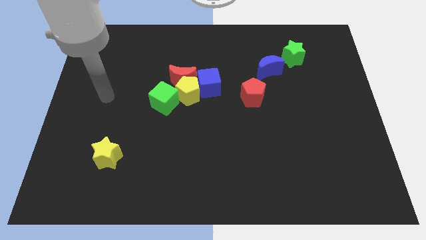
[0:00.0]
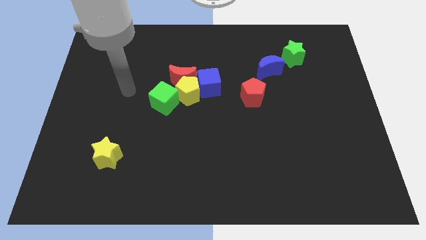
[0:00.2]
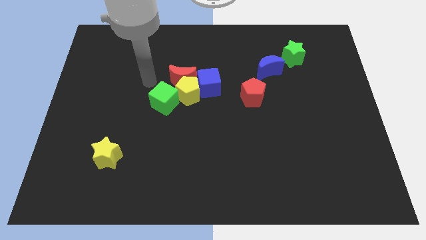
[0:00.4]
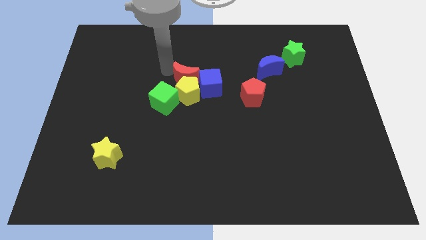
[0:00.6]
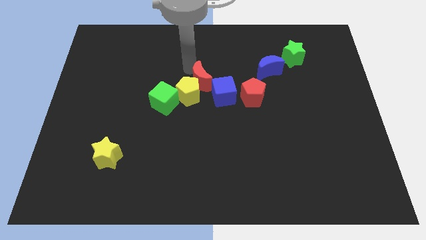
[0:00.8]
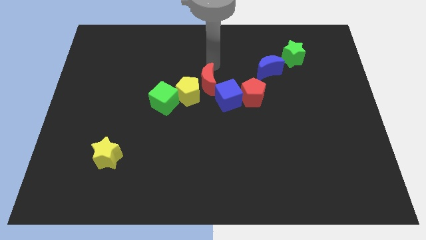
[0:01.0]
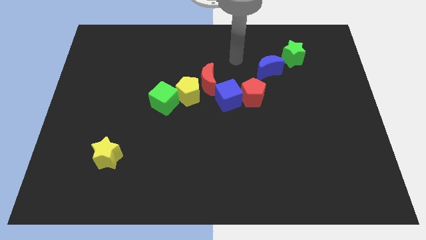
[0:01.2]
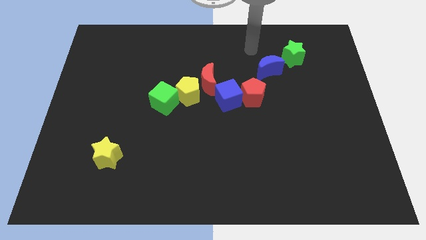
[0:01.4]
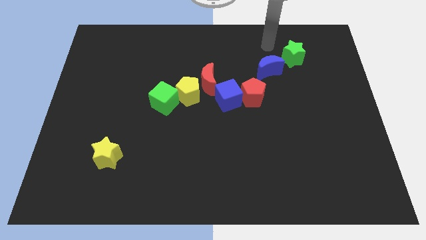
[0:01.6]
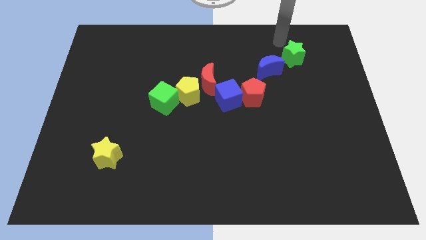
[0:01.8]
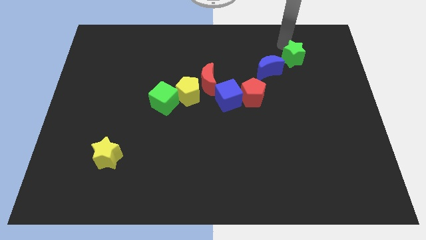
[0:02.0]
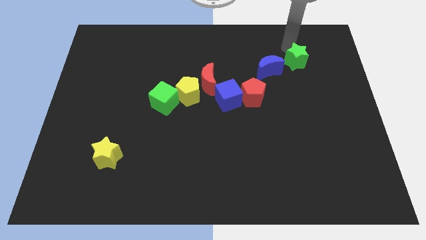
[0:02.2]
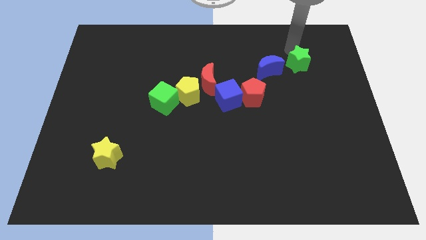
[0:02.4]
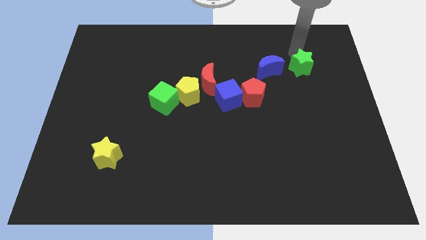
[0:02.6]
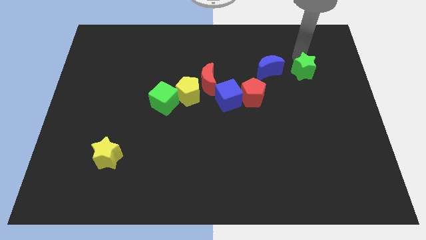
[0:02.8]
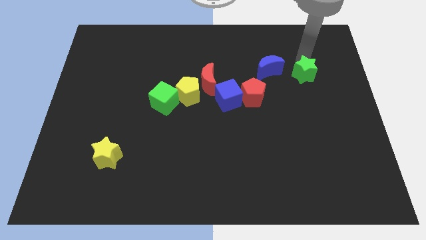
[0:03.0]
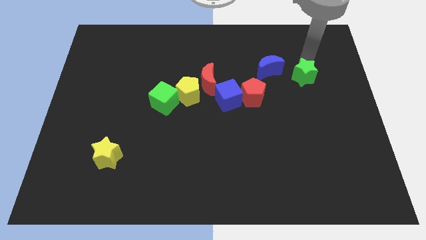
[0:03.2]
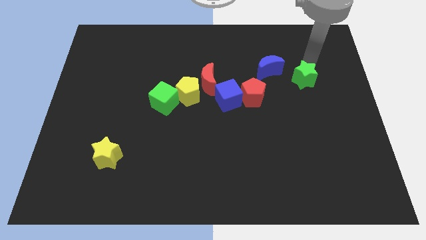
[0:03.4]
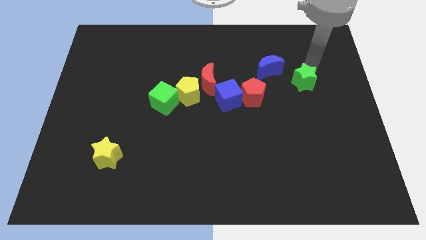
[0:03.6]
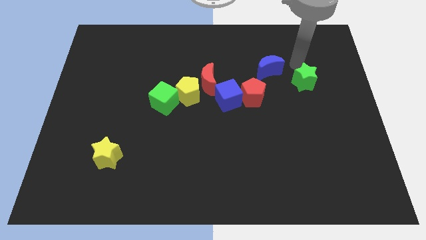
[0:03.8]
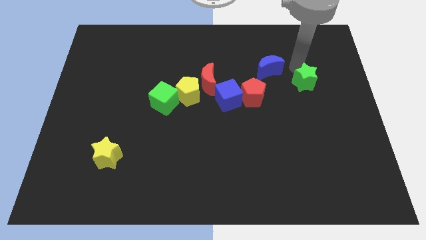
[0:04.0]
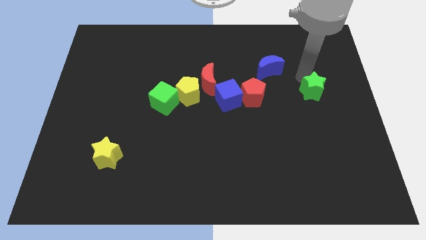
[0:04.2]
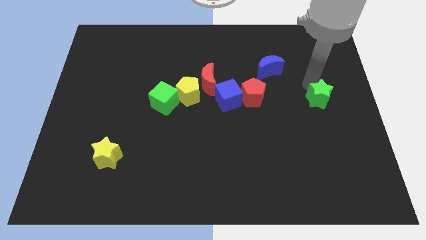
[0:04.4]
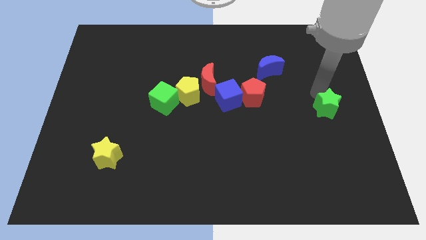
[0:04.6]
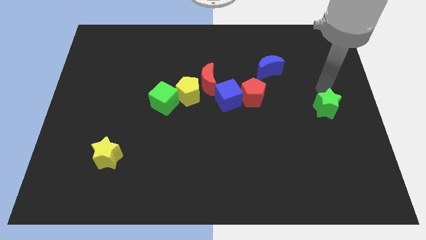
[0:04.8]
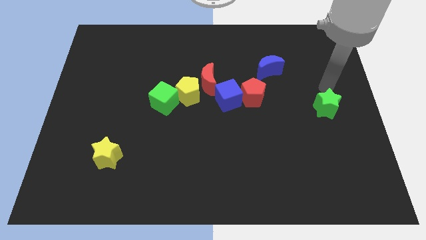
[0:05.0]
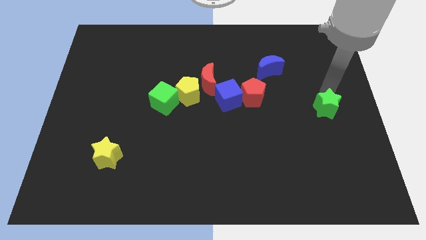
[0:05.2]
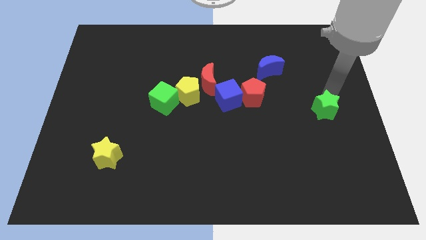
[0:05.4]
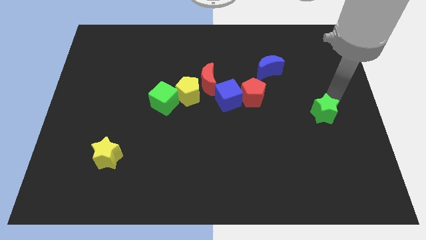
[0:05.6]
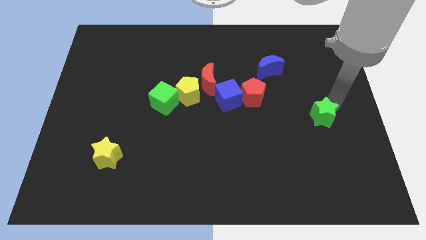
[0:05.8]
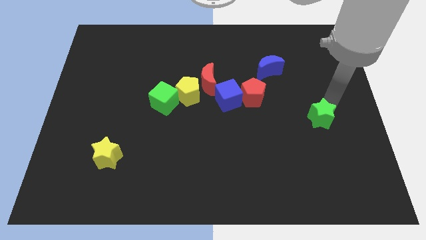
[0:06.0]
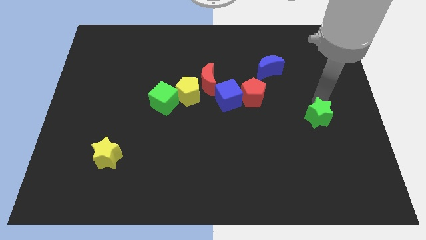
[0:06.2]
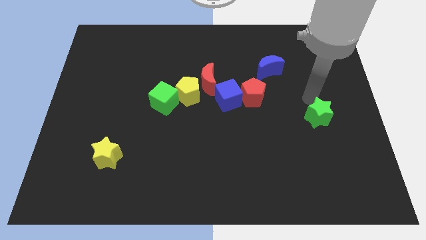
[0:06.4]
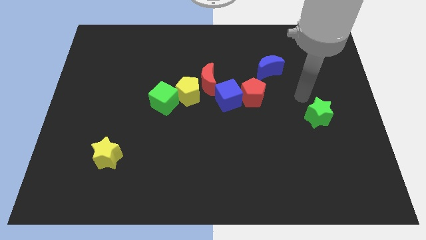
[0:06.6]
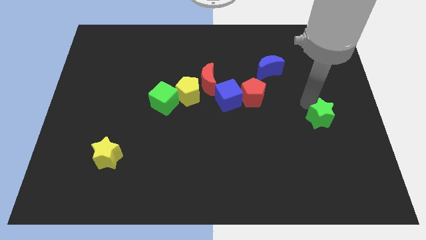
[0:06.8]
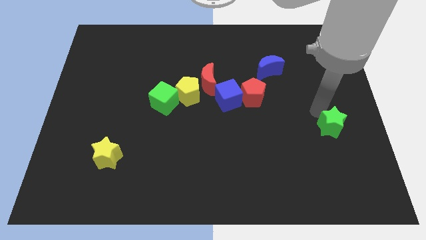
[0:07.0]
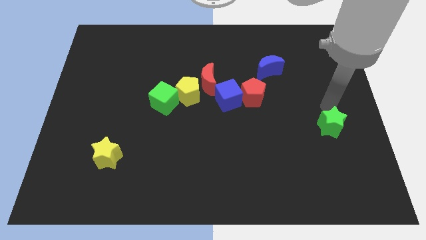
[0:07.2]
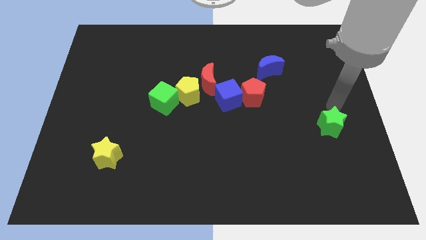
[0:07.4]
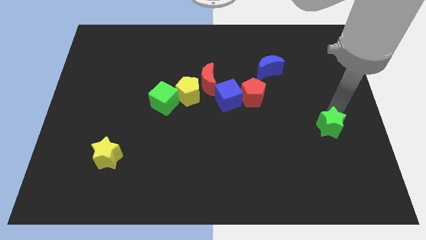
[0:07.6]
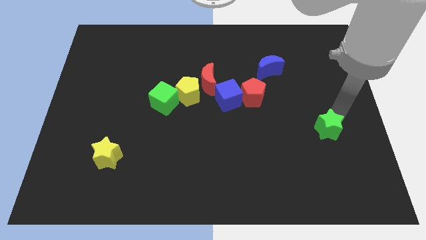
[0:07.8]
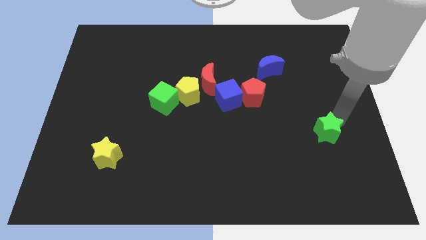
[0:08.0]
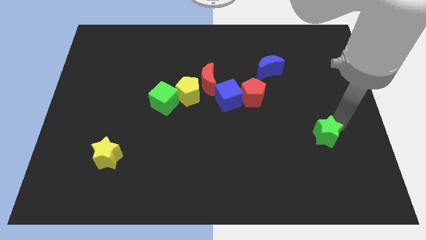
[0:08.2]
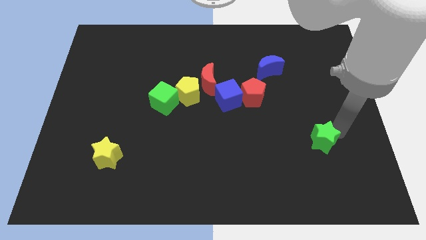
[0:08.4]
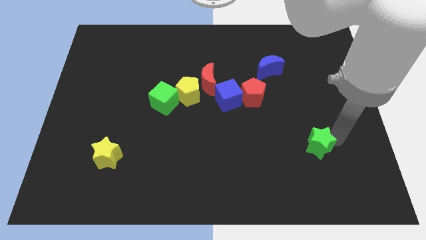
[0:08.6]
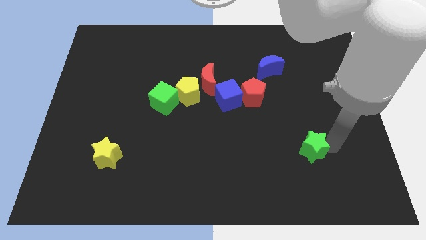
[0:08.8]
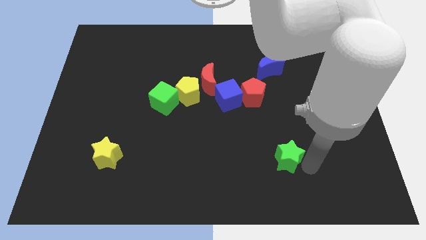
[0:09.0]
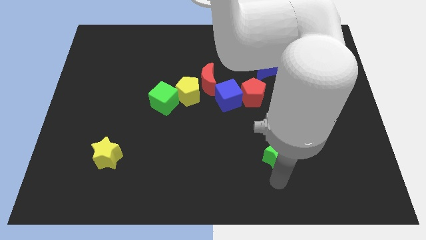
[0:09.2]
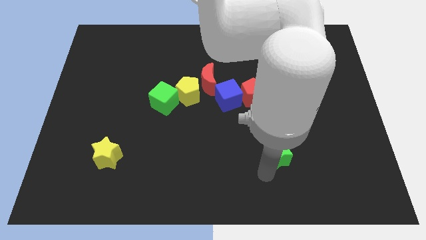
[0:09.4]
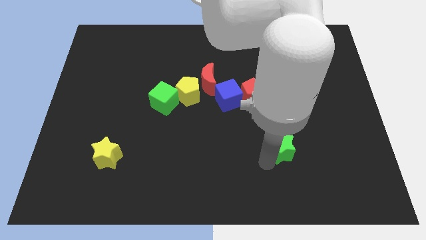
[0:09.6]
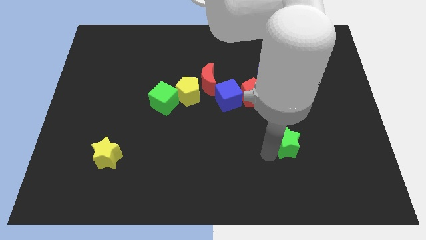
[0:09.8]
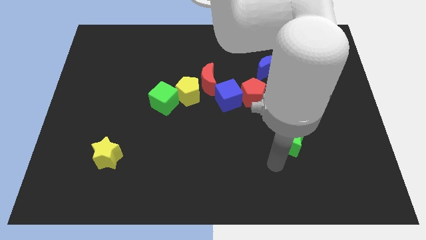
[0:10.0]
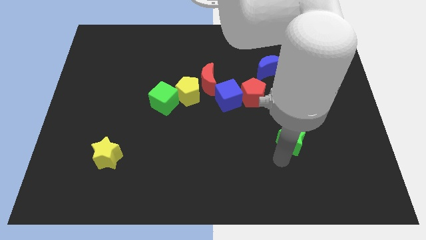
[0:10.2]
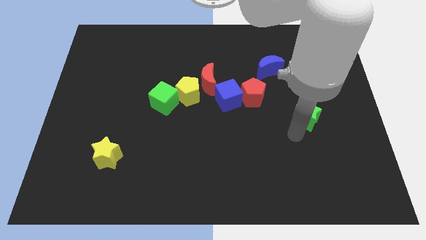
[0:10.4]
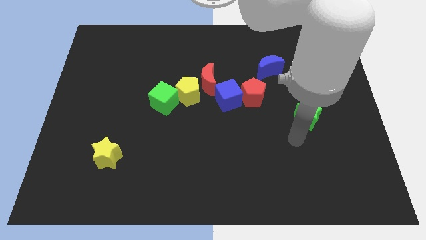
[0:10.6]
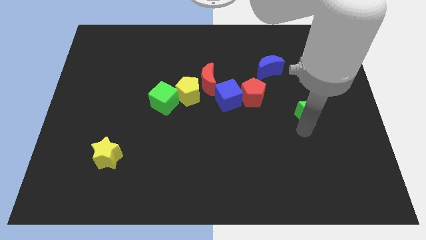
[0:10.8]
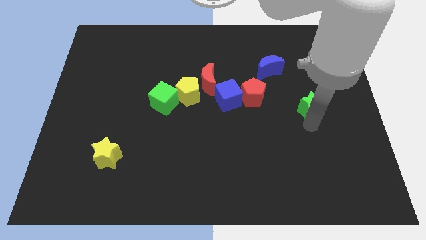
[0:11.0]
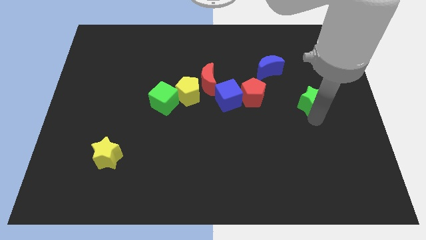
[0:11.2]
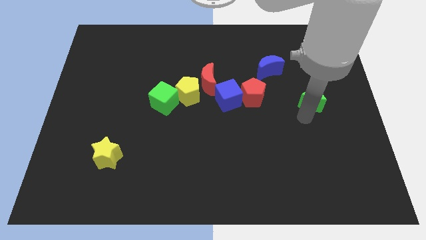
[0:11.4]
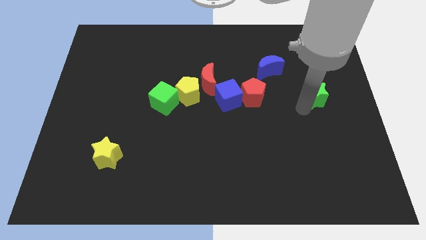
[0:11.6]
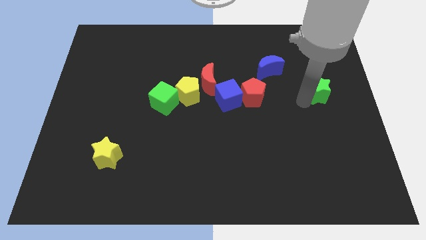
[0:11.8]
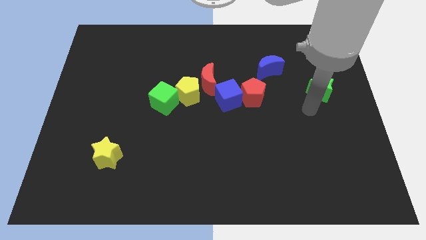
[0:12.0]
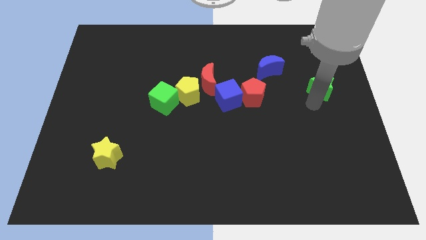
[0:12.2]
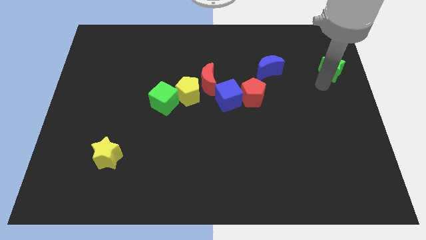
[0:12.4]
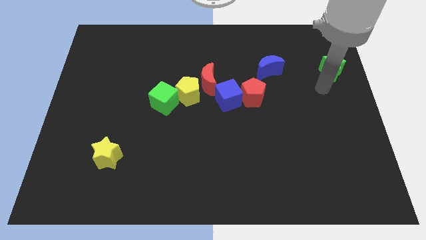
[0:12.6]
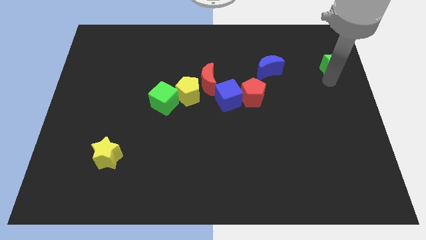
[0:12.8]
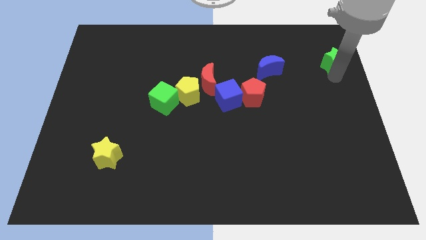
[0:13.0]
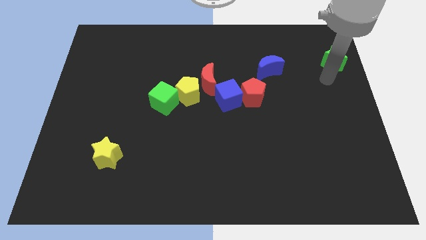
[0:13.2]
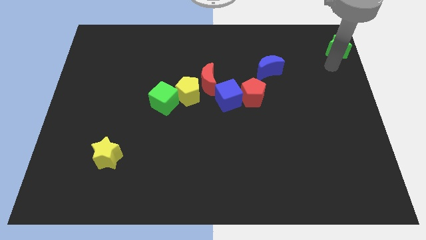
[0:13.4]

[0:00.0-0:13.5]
move the green star to the upper right corner
